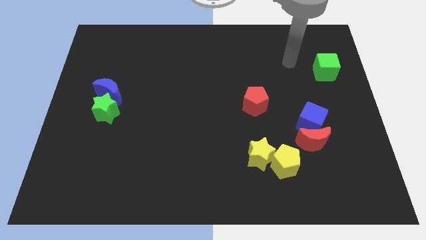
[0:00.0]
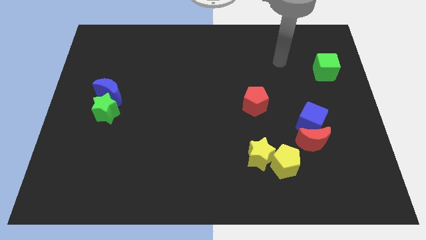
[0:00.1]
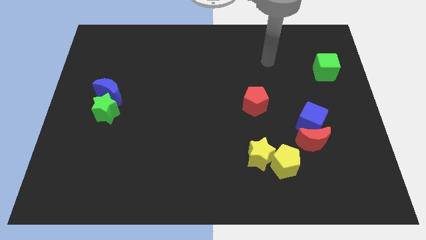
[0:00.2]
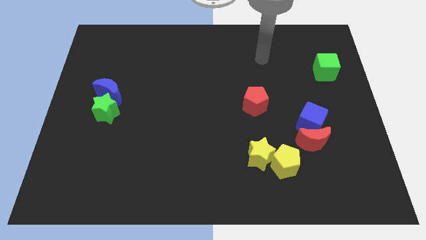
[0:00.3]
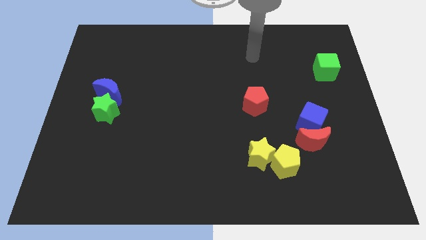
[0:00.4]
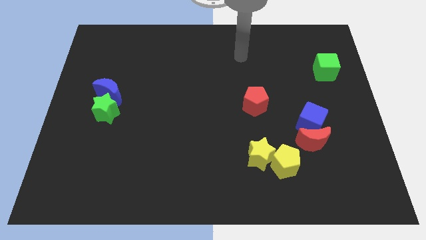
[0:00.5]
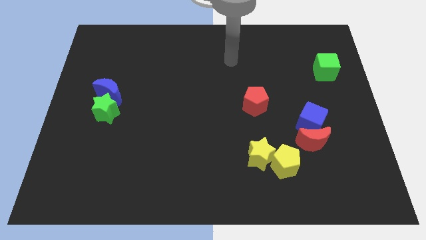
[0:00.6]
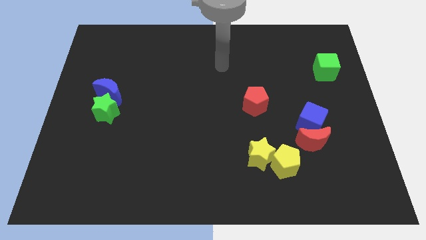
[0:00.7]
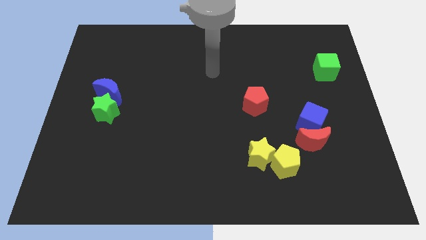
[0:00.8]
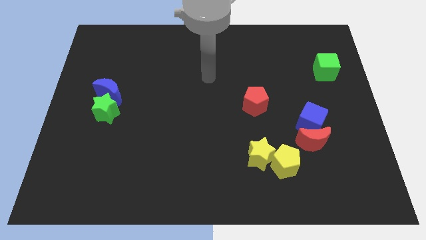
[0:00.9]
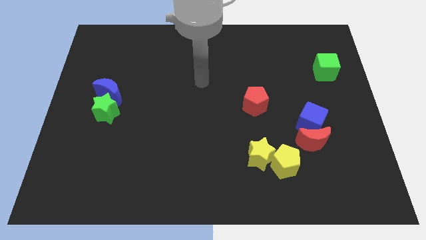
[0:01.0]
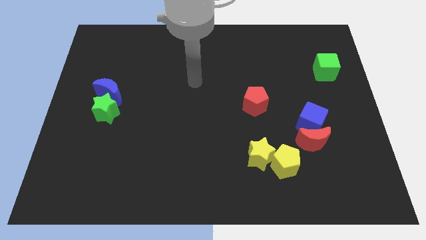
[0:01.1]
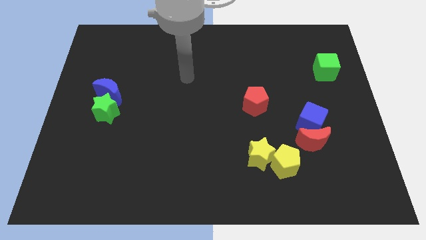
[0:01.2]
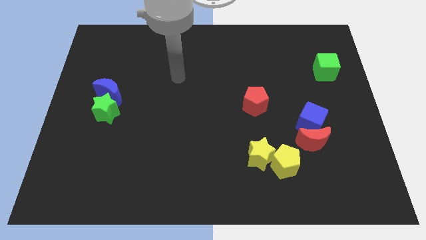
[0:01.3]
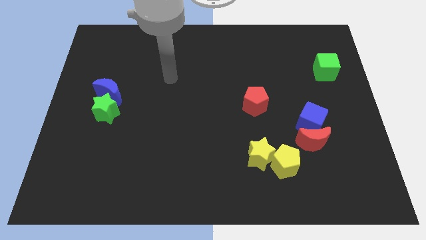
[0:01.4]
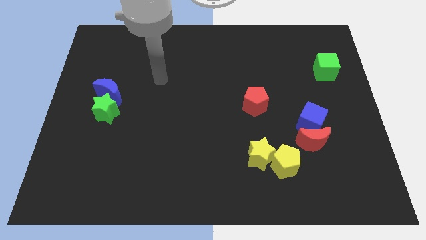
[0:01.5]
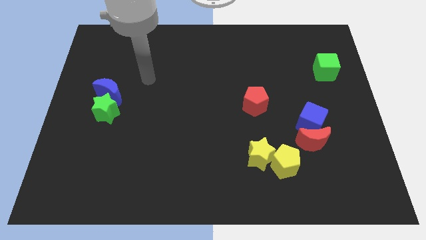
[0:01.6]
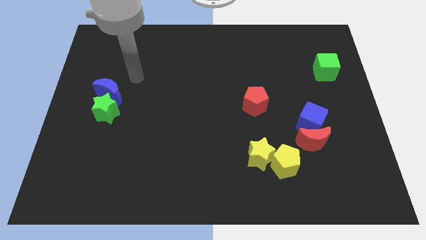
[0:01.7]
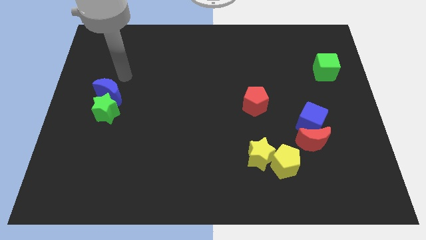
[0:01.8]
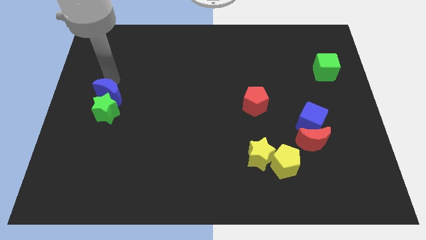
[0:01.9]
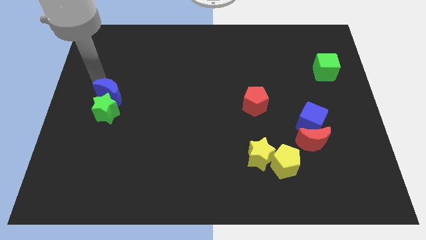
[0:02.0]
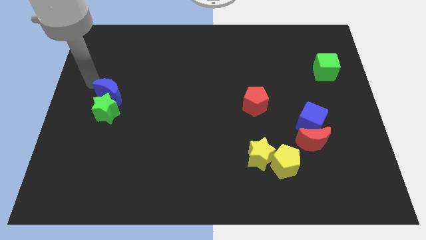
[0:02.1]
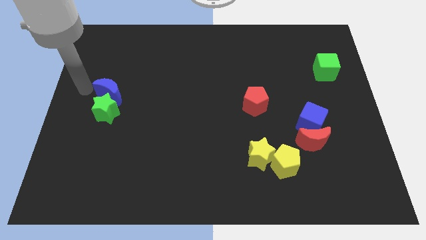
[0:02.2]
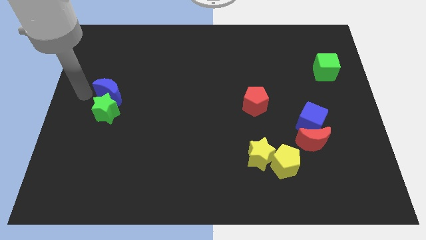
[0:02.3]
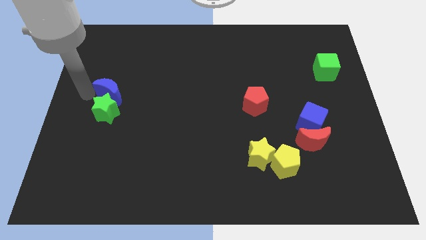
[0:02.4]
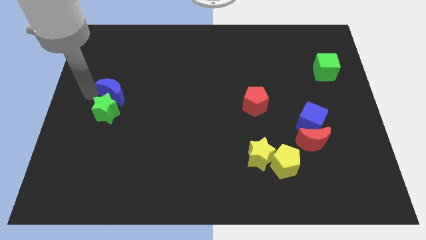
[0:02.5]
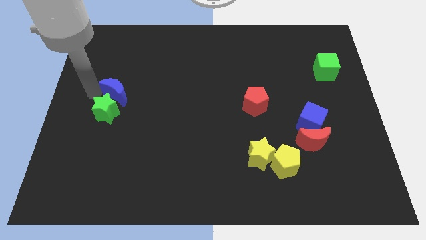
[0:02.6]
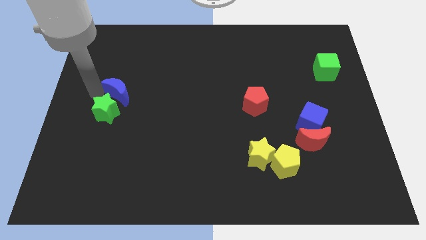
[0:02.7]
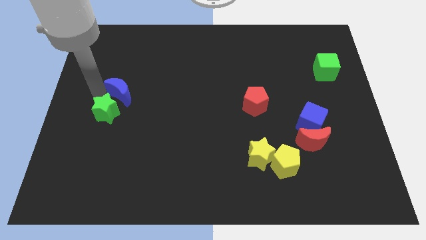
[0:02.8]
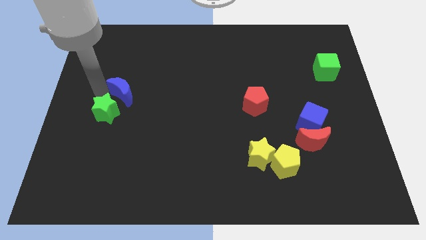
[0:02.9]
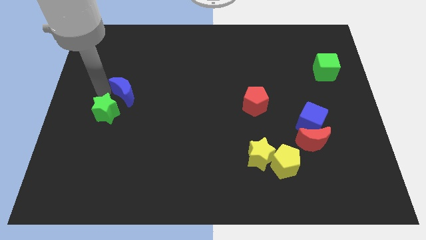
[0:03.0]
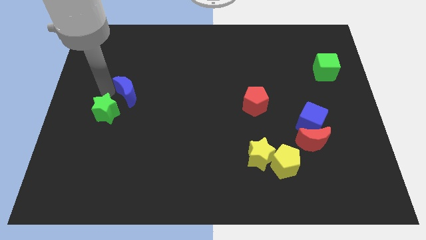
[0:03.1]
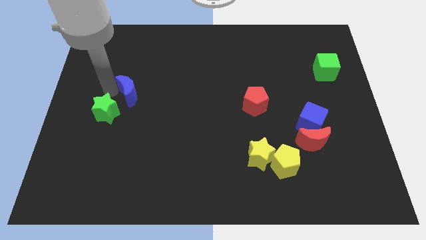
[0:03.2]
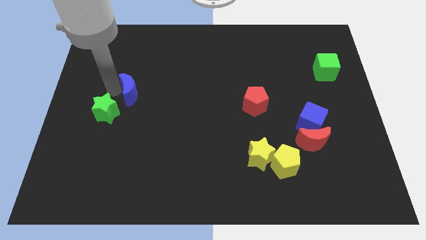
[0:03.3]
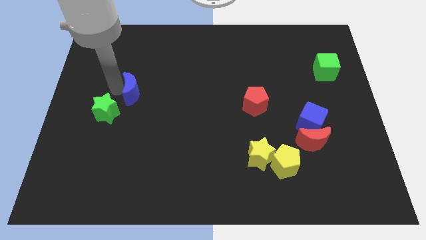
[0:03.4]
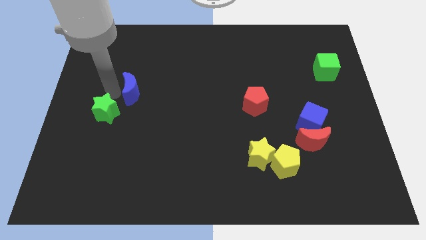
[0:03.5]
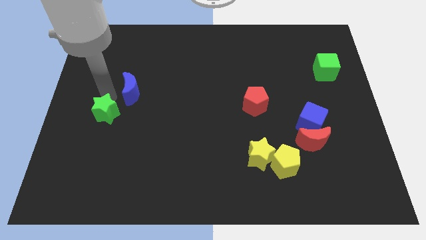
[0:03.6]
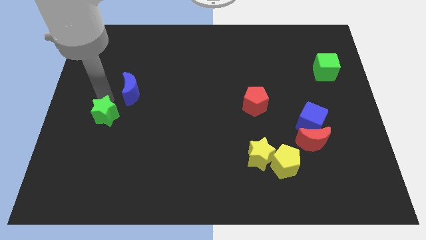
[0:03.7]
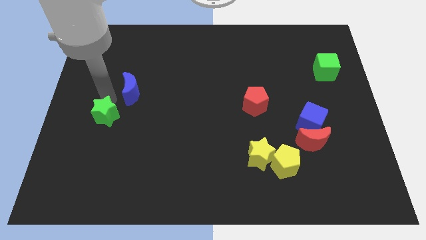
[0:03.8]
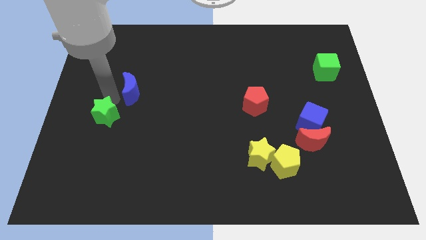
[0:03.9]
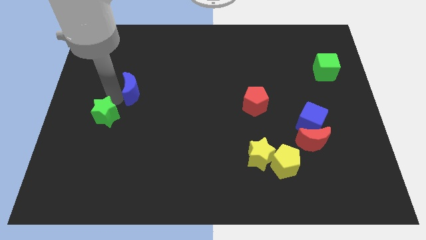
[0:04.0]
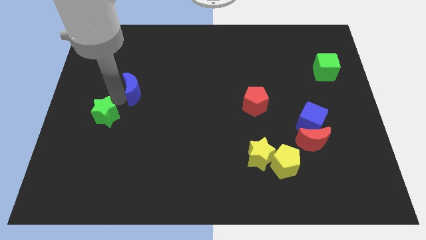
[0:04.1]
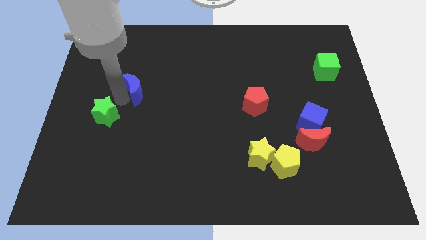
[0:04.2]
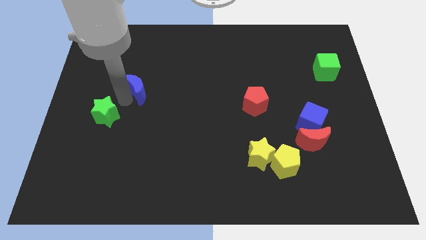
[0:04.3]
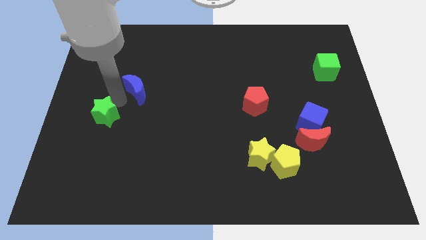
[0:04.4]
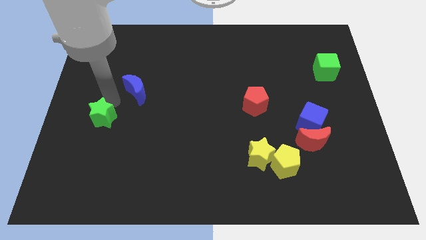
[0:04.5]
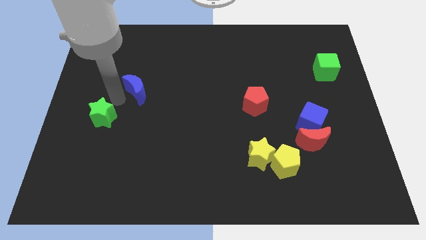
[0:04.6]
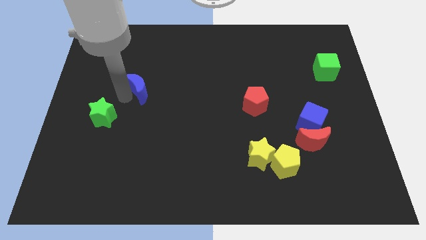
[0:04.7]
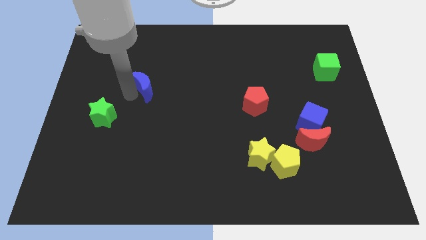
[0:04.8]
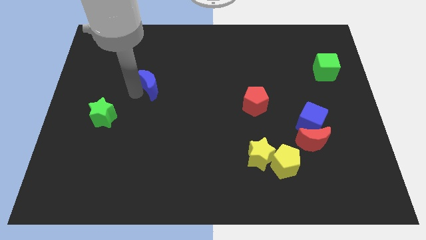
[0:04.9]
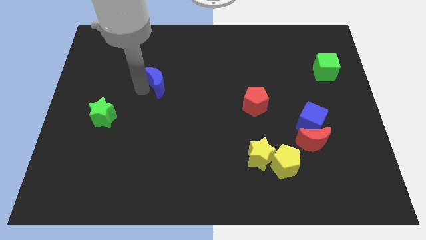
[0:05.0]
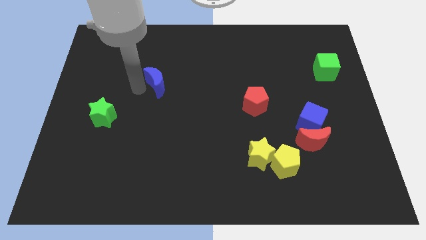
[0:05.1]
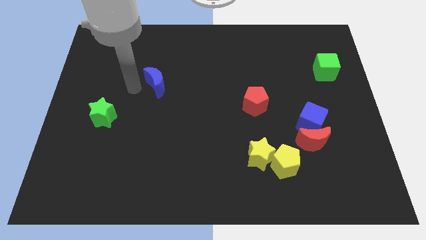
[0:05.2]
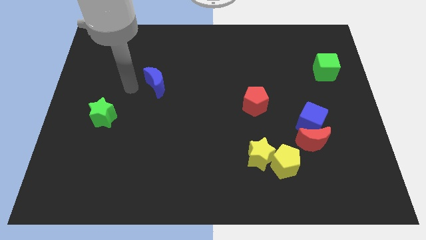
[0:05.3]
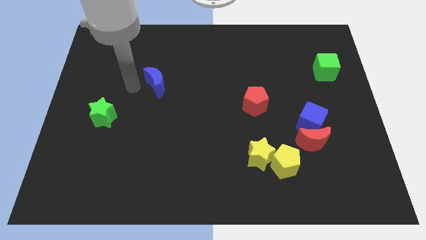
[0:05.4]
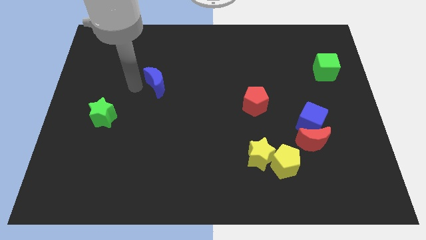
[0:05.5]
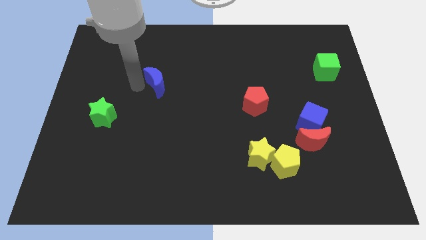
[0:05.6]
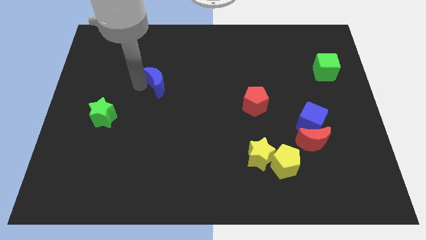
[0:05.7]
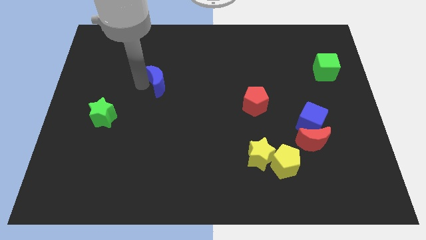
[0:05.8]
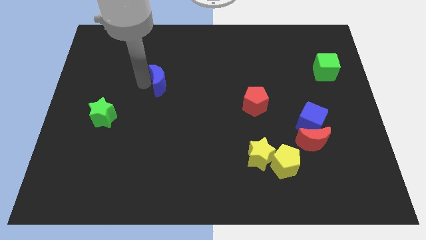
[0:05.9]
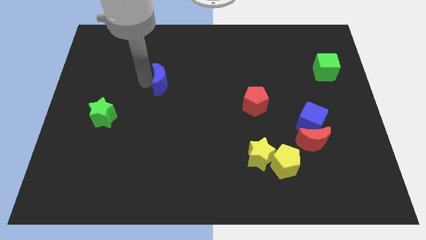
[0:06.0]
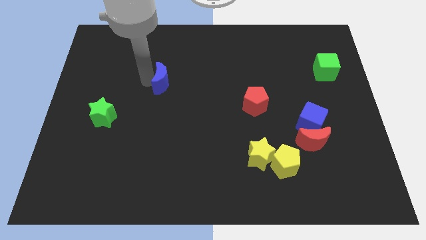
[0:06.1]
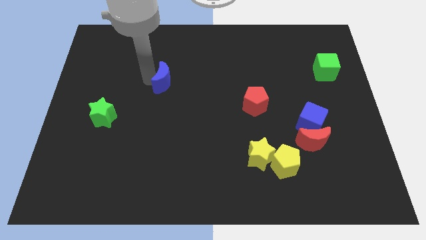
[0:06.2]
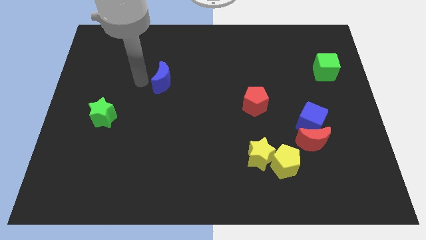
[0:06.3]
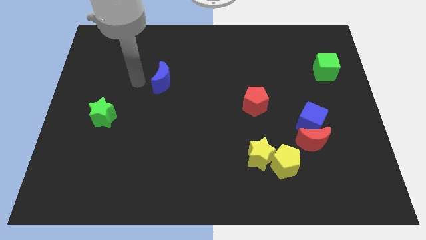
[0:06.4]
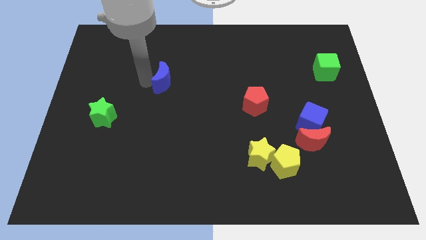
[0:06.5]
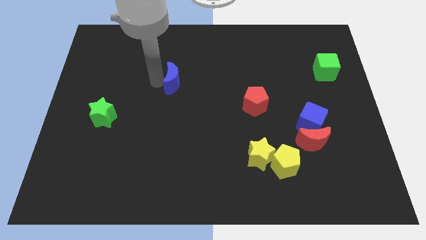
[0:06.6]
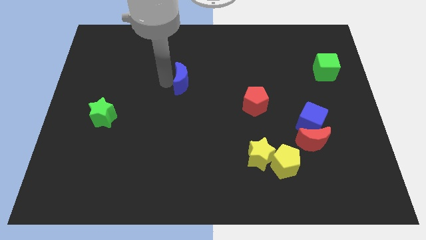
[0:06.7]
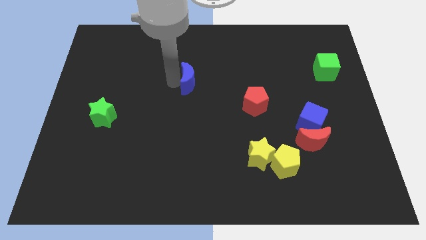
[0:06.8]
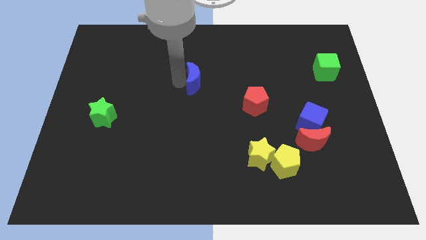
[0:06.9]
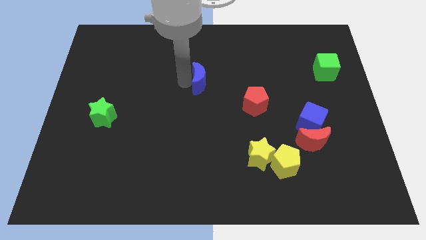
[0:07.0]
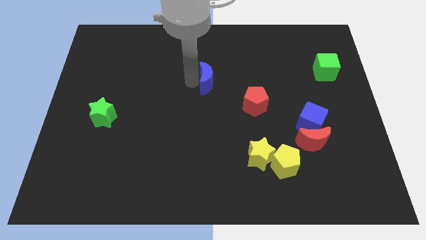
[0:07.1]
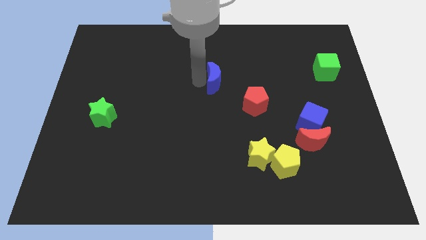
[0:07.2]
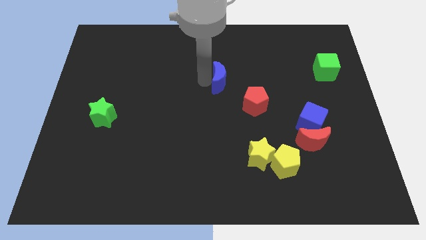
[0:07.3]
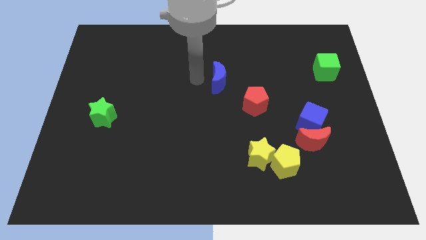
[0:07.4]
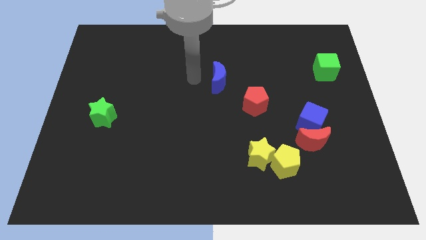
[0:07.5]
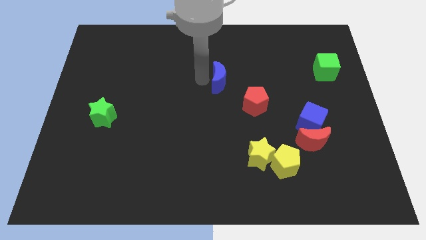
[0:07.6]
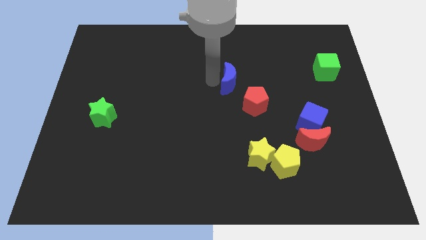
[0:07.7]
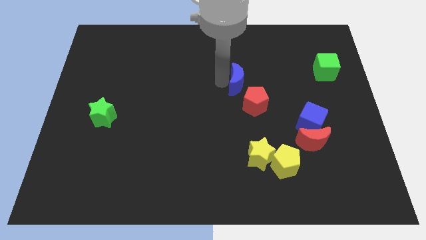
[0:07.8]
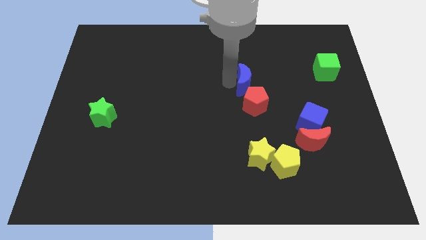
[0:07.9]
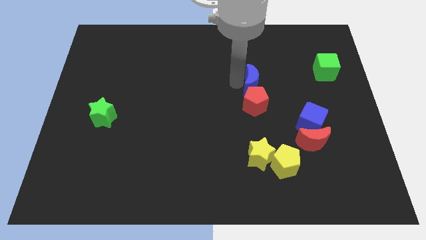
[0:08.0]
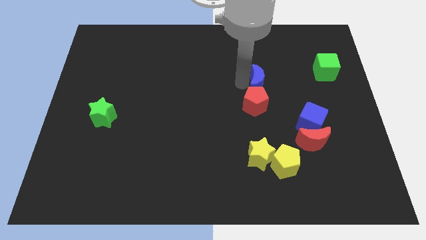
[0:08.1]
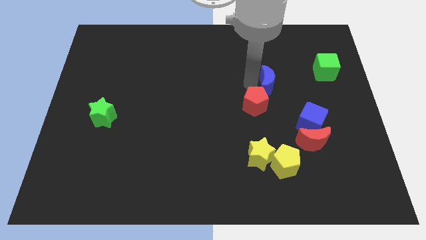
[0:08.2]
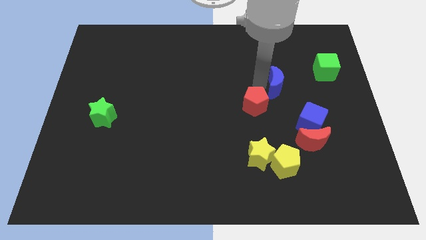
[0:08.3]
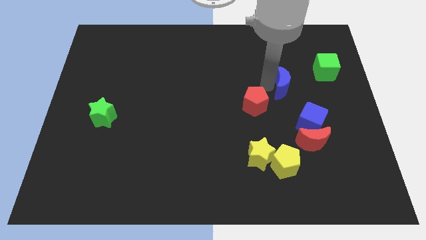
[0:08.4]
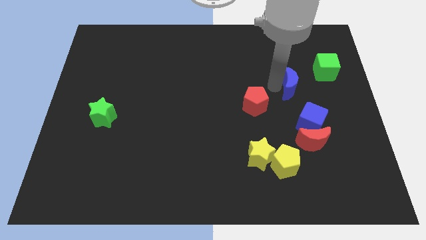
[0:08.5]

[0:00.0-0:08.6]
put the blue moon above the blue cube
